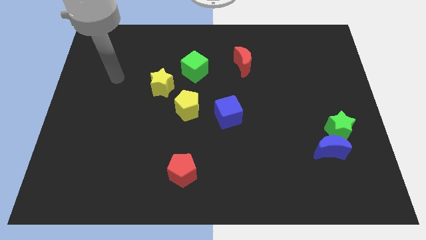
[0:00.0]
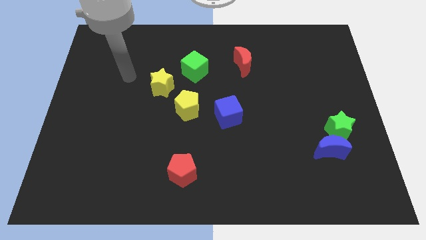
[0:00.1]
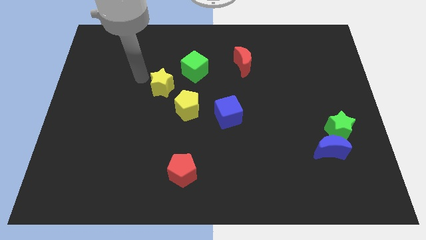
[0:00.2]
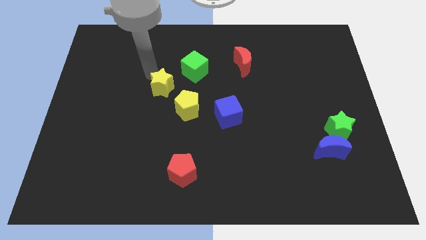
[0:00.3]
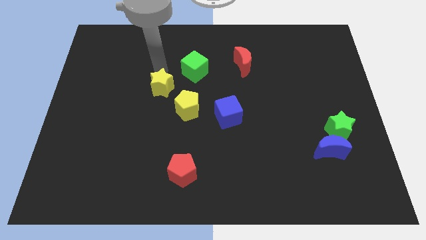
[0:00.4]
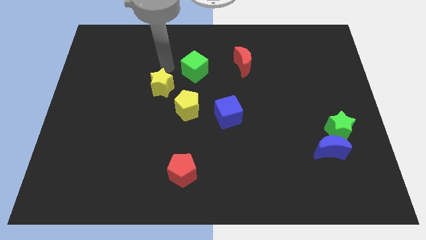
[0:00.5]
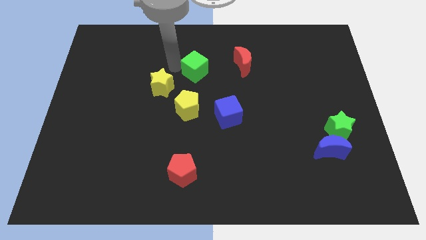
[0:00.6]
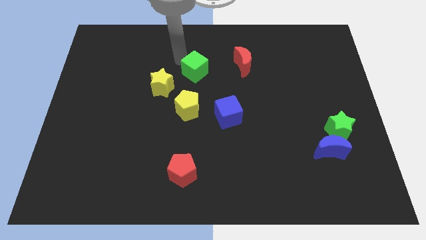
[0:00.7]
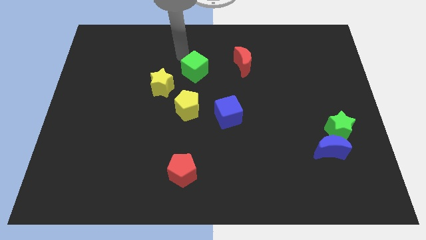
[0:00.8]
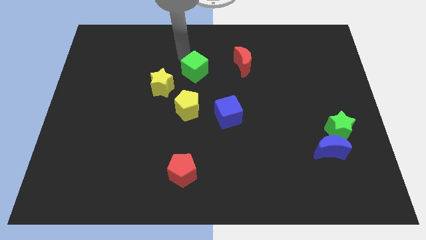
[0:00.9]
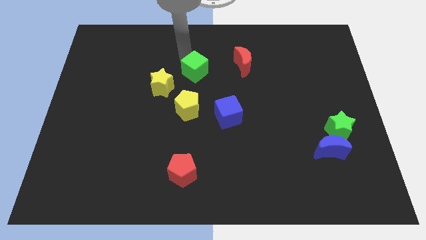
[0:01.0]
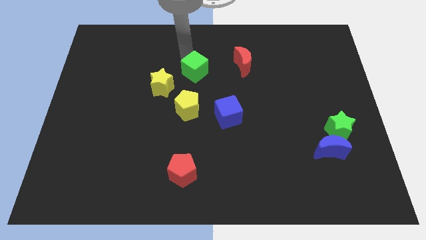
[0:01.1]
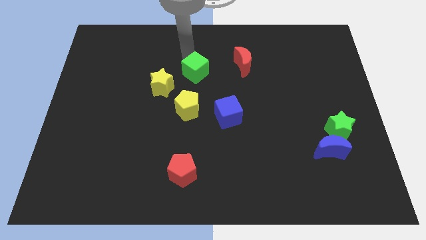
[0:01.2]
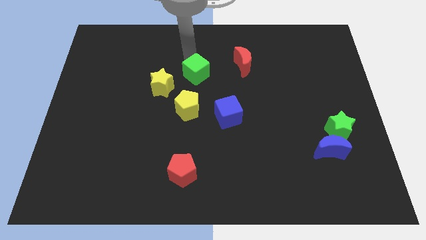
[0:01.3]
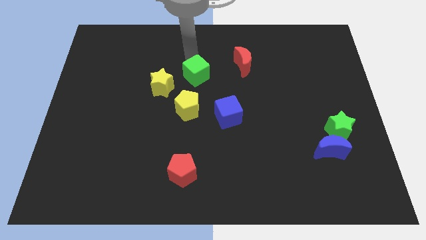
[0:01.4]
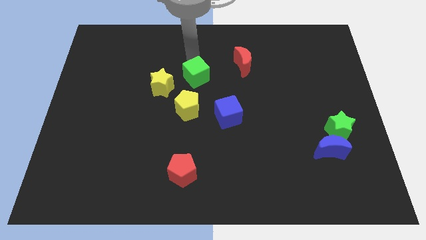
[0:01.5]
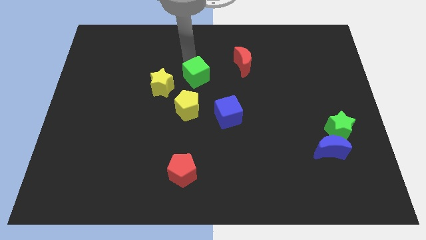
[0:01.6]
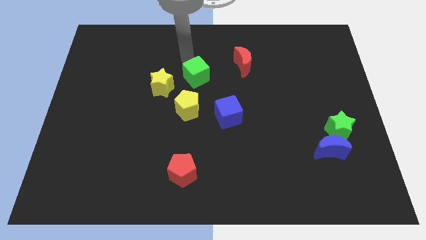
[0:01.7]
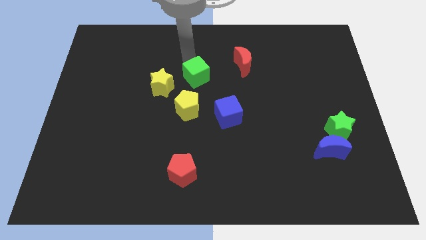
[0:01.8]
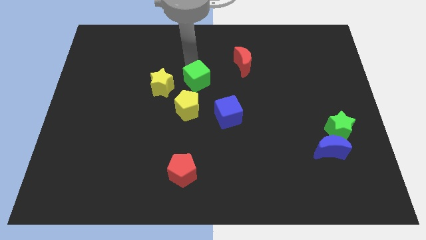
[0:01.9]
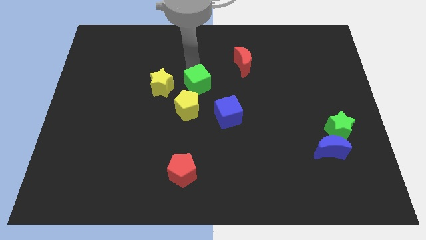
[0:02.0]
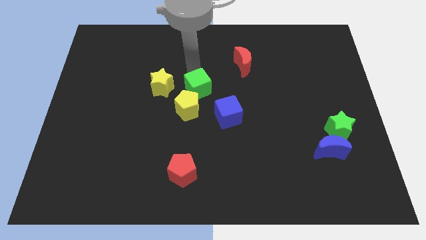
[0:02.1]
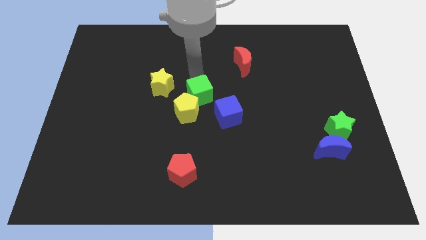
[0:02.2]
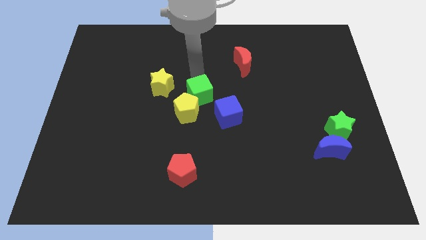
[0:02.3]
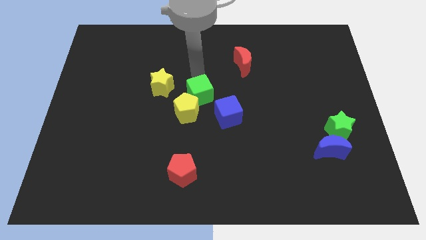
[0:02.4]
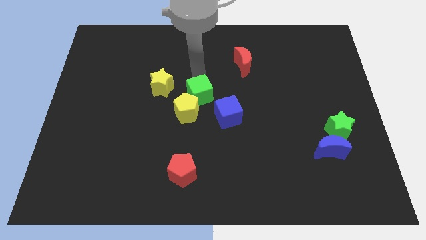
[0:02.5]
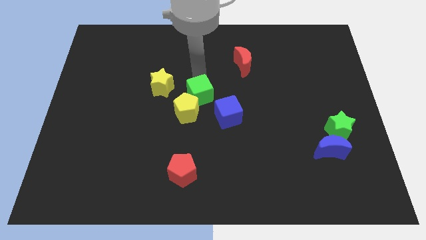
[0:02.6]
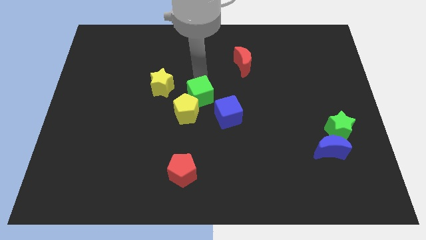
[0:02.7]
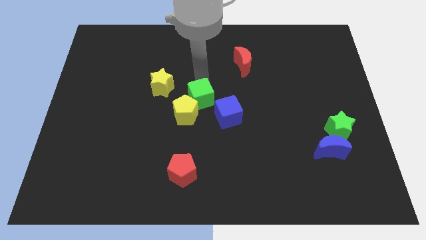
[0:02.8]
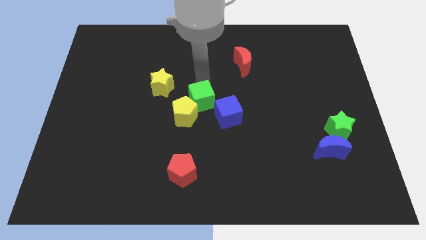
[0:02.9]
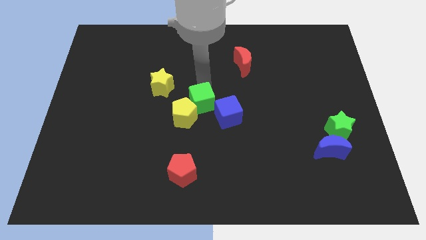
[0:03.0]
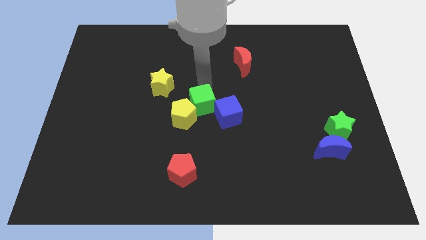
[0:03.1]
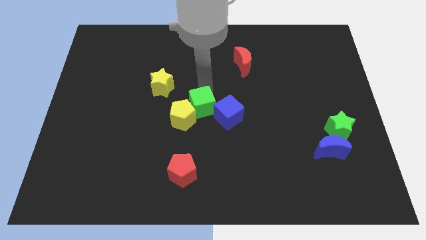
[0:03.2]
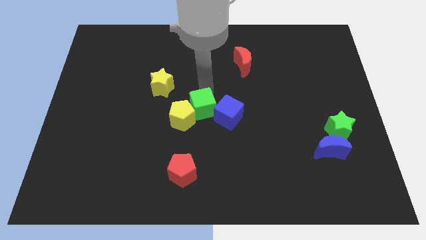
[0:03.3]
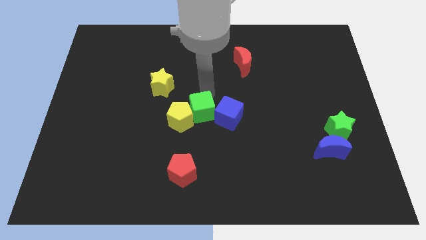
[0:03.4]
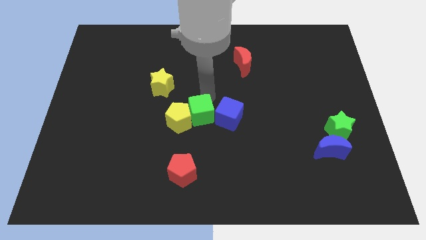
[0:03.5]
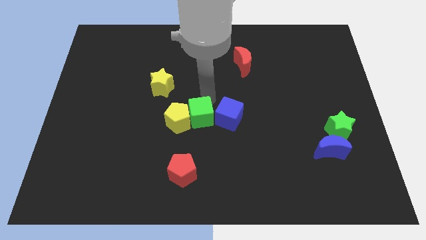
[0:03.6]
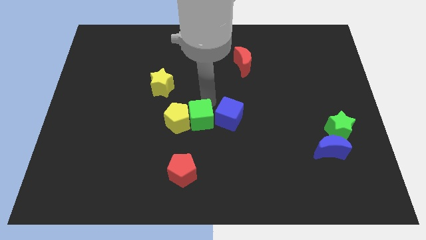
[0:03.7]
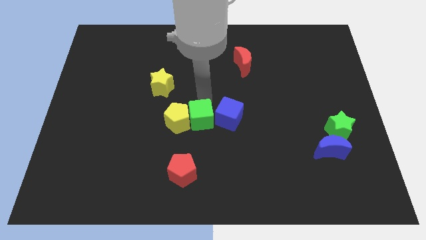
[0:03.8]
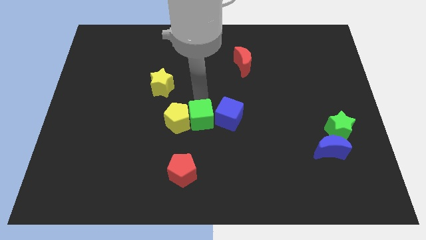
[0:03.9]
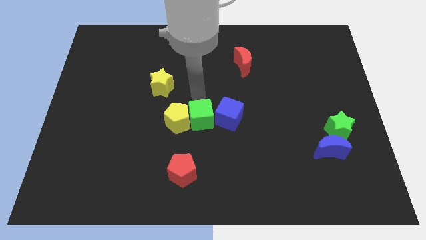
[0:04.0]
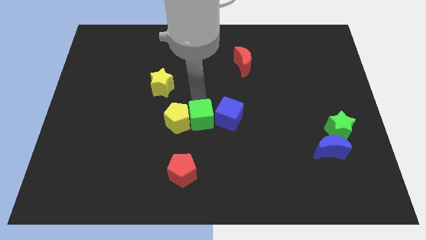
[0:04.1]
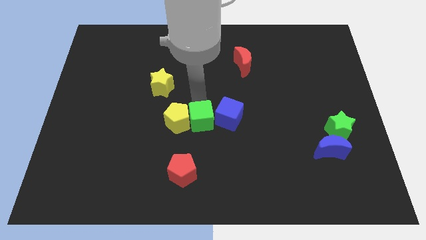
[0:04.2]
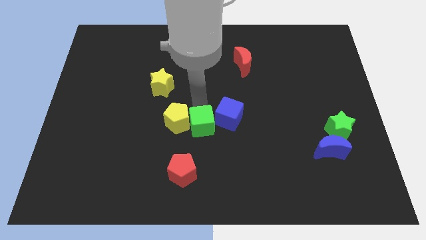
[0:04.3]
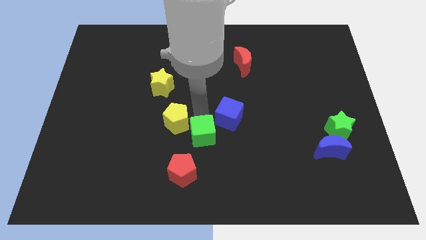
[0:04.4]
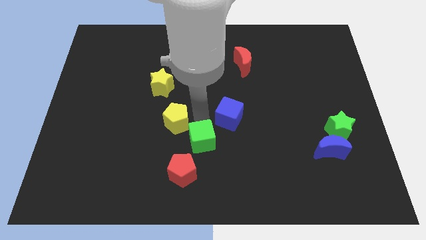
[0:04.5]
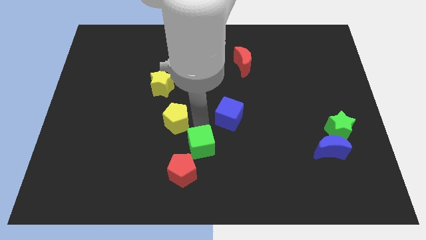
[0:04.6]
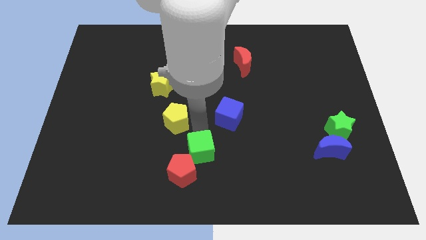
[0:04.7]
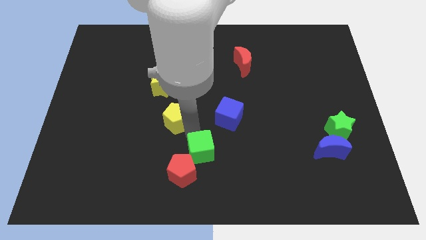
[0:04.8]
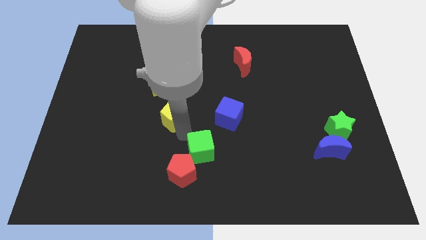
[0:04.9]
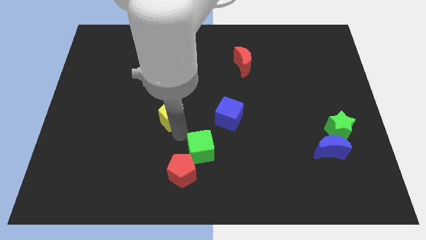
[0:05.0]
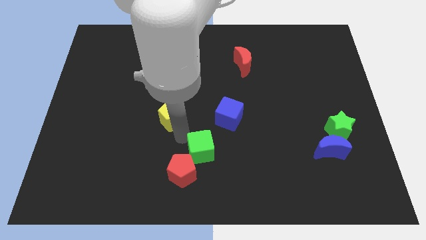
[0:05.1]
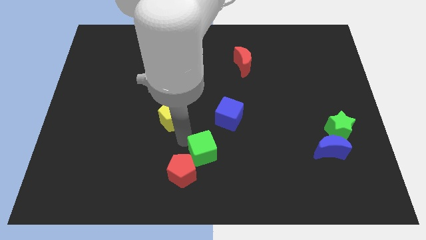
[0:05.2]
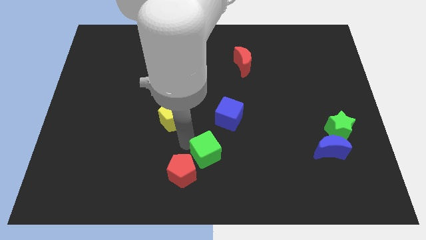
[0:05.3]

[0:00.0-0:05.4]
push the green cube to the right of the red pentagon

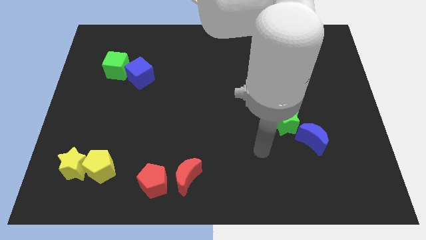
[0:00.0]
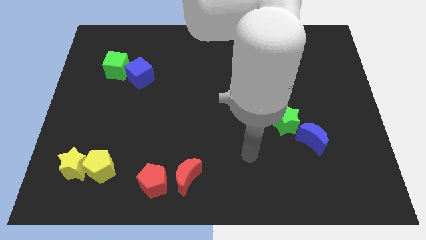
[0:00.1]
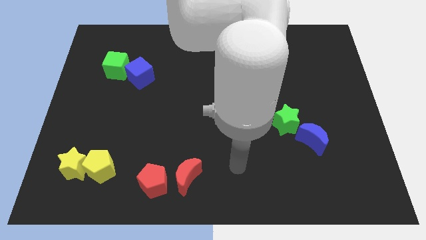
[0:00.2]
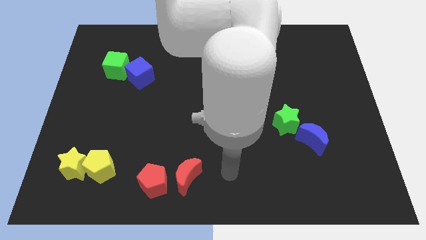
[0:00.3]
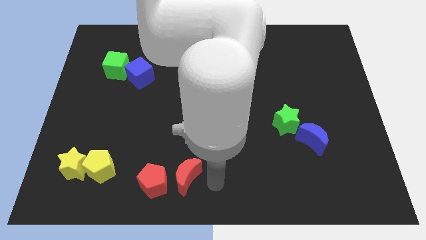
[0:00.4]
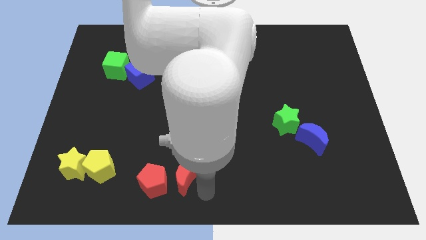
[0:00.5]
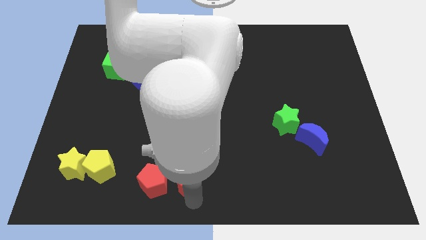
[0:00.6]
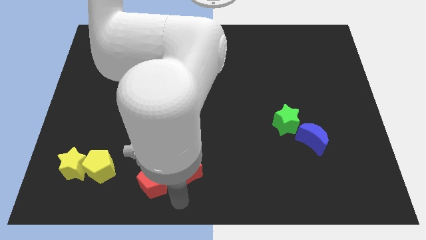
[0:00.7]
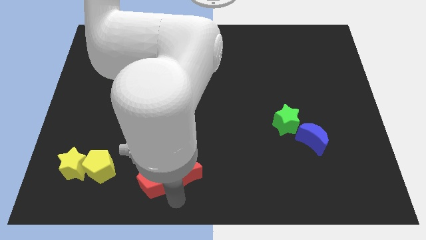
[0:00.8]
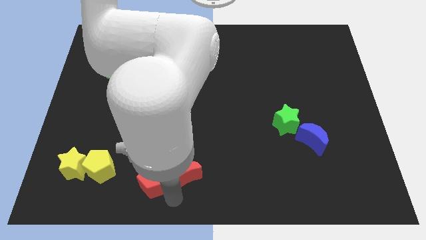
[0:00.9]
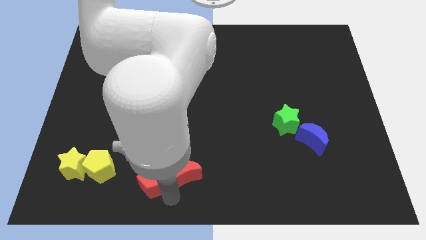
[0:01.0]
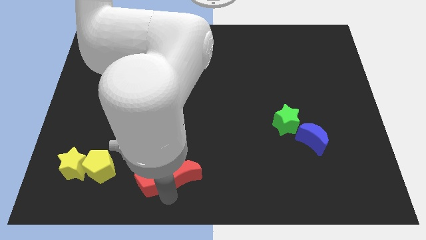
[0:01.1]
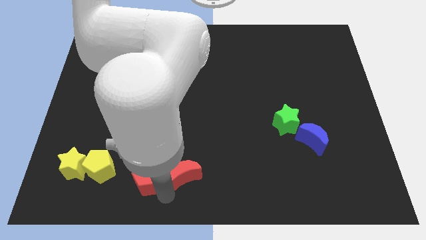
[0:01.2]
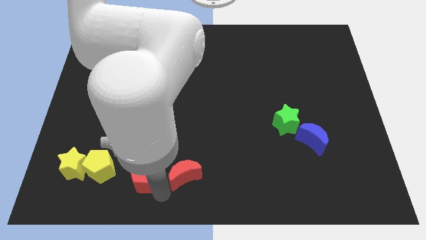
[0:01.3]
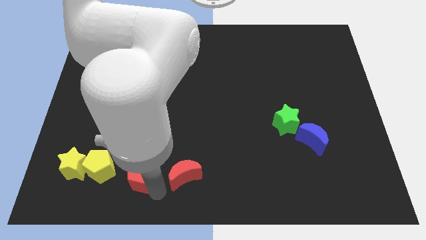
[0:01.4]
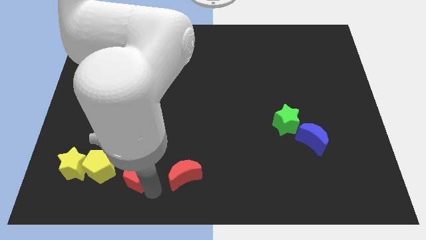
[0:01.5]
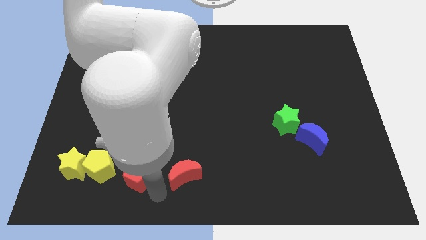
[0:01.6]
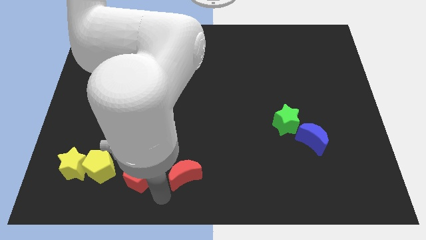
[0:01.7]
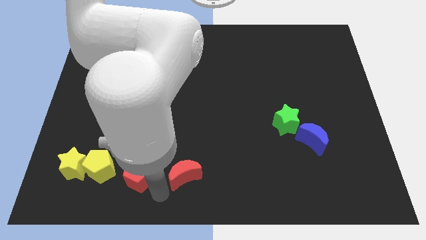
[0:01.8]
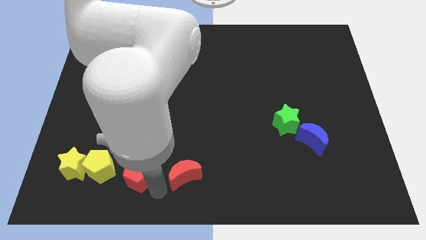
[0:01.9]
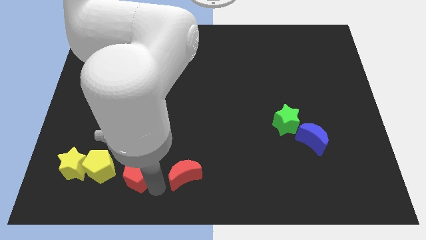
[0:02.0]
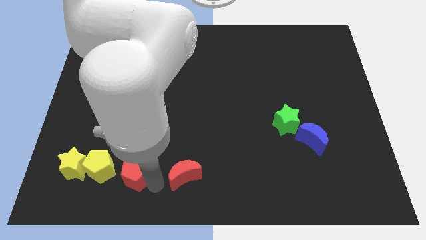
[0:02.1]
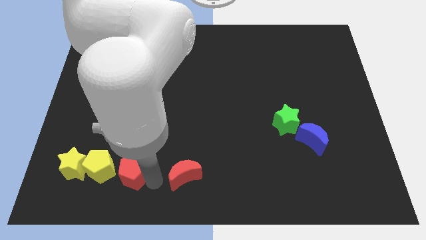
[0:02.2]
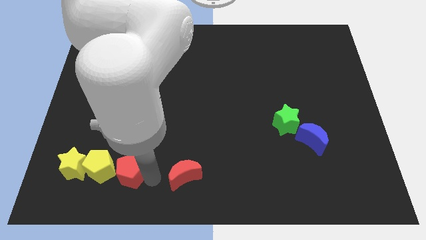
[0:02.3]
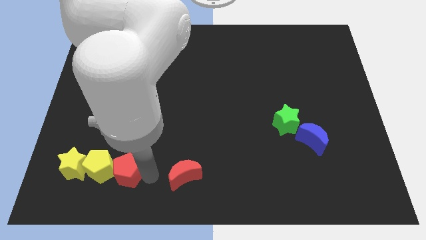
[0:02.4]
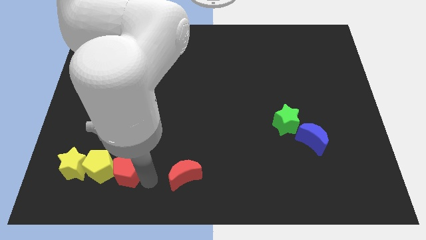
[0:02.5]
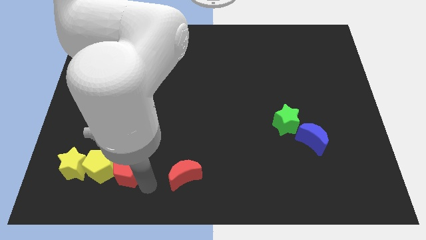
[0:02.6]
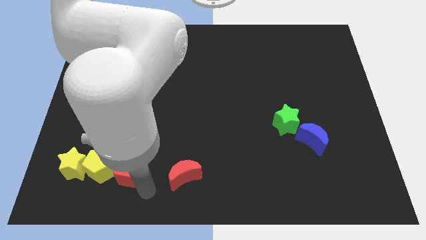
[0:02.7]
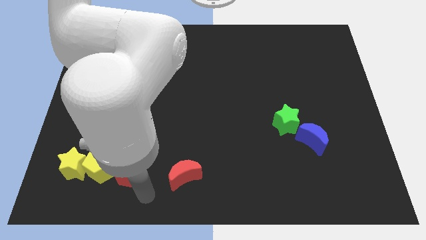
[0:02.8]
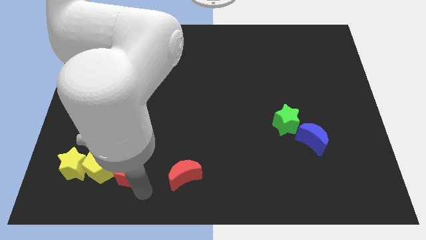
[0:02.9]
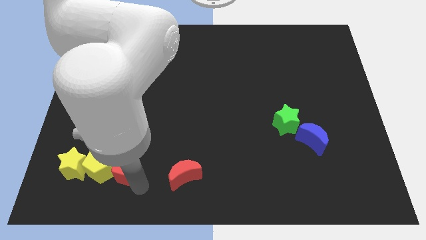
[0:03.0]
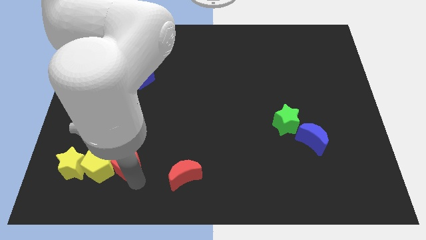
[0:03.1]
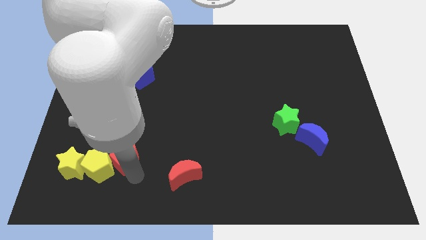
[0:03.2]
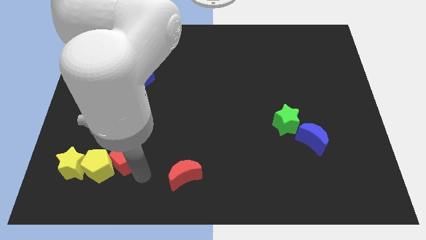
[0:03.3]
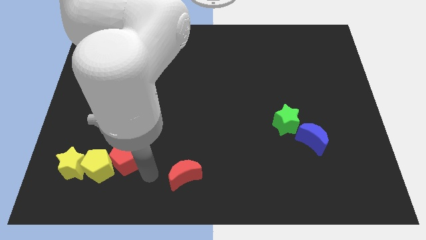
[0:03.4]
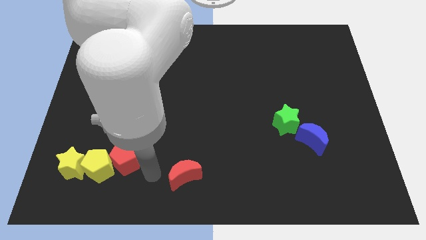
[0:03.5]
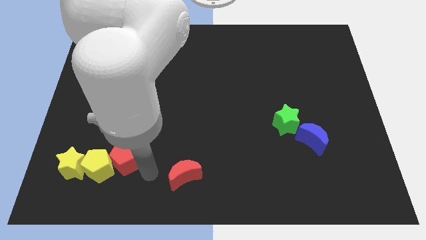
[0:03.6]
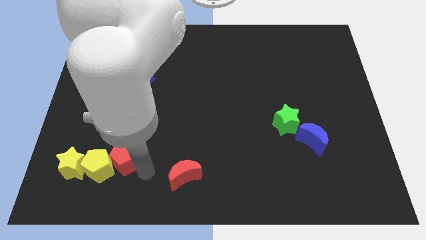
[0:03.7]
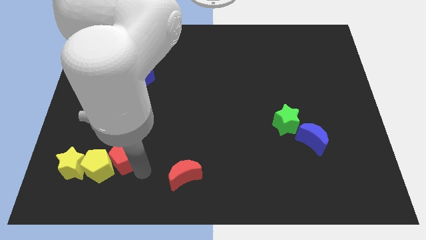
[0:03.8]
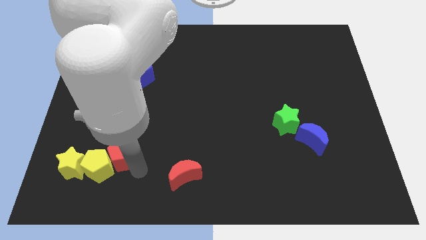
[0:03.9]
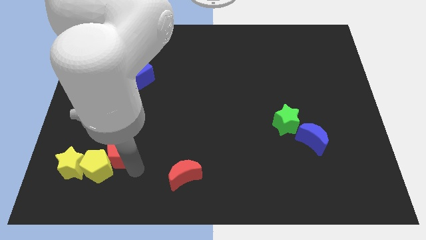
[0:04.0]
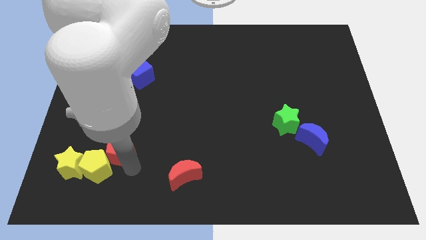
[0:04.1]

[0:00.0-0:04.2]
push the red pentagon to the top right side of the yellow star
